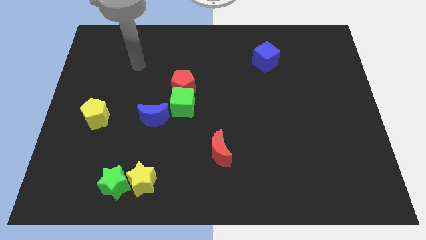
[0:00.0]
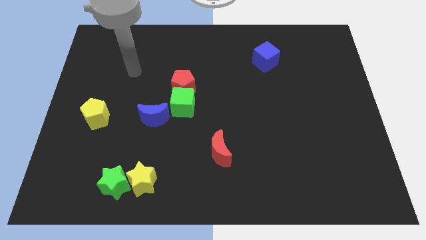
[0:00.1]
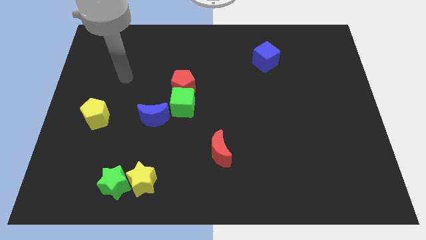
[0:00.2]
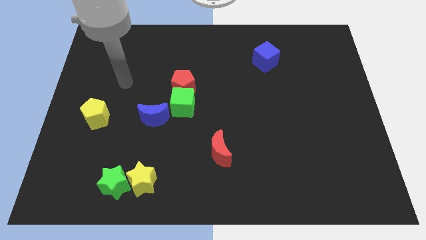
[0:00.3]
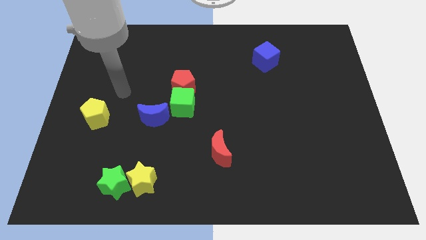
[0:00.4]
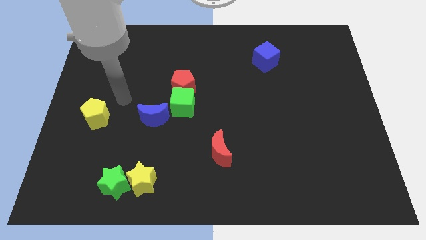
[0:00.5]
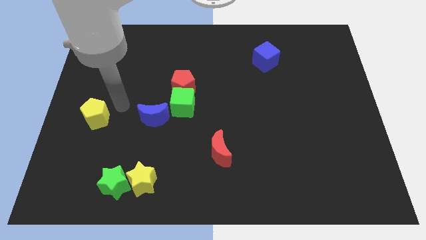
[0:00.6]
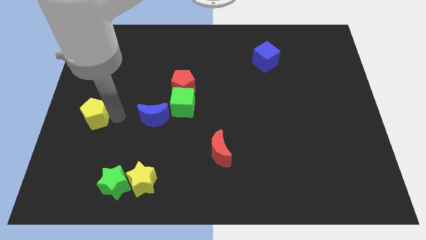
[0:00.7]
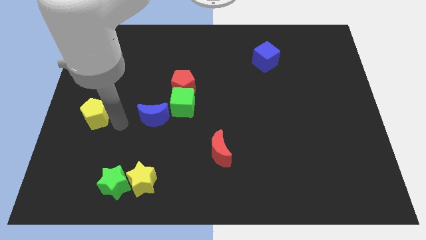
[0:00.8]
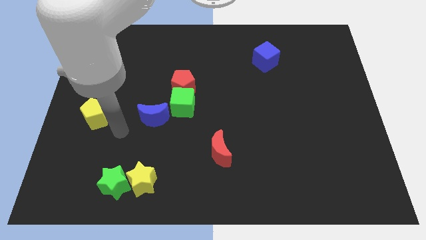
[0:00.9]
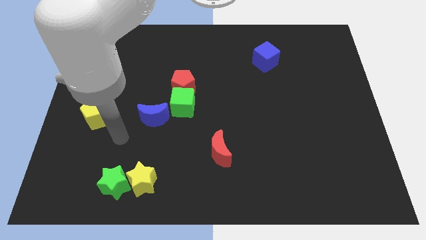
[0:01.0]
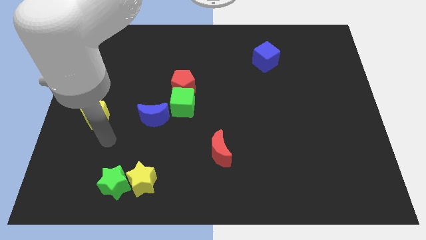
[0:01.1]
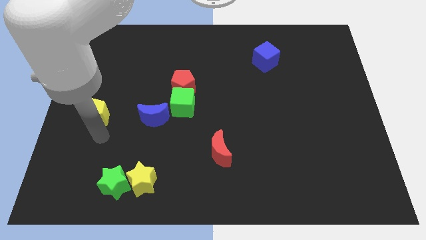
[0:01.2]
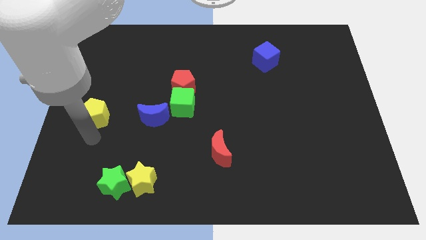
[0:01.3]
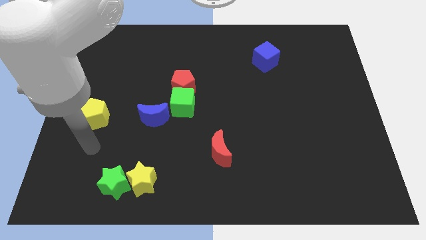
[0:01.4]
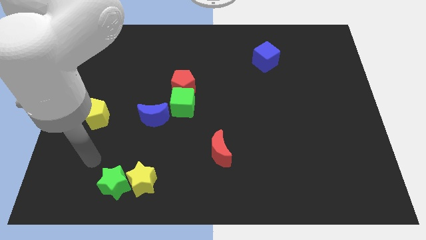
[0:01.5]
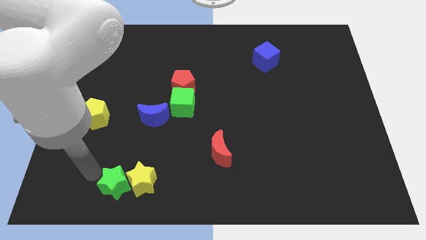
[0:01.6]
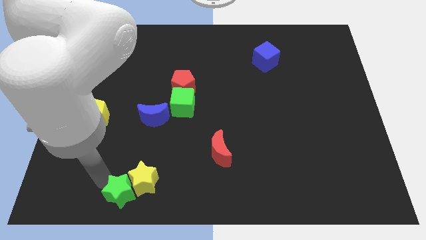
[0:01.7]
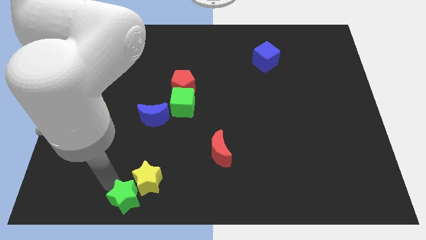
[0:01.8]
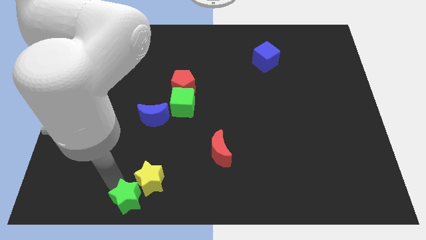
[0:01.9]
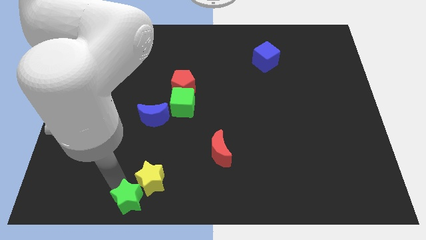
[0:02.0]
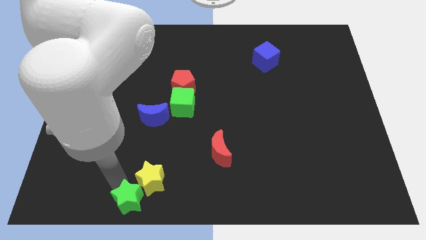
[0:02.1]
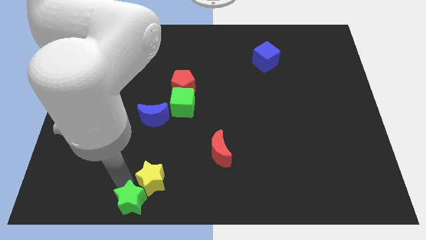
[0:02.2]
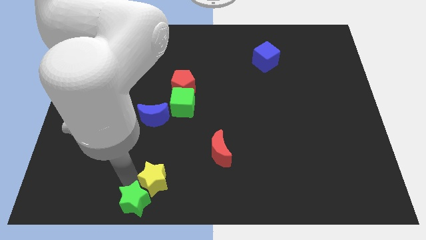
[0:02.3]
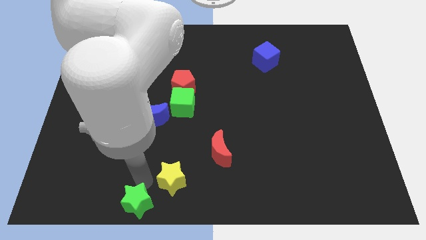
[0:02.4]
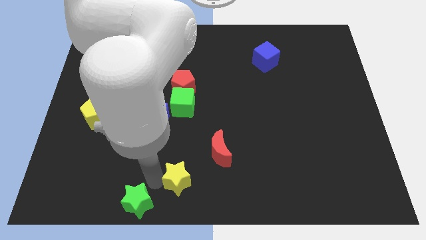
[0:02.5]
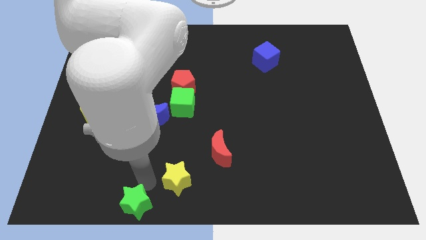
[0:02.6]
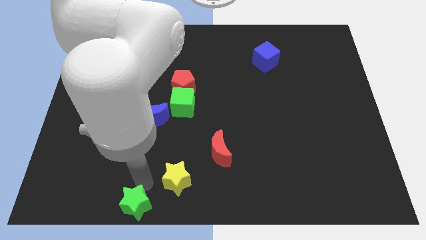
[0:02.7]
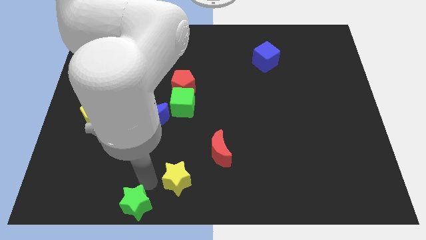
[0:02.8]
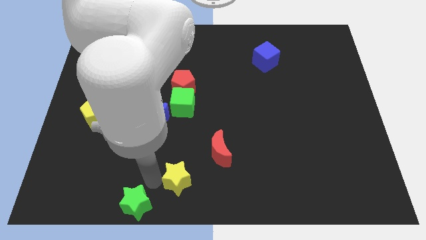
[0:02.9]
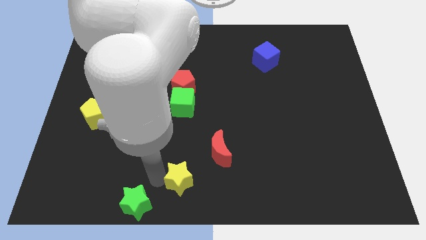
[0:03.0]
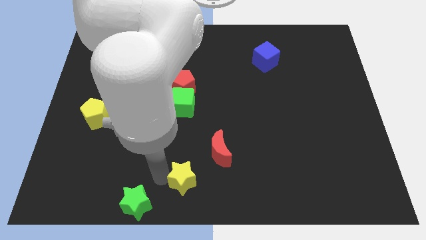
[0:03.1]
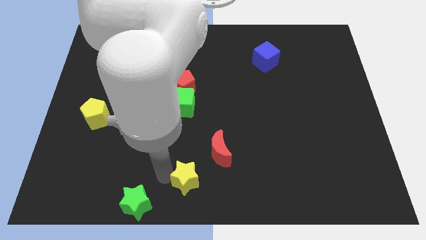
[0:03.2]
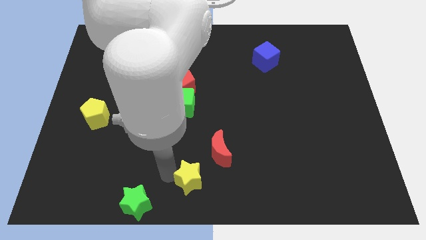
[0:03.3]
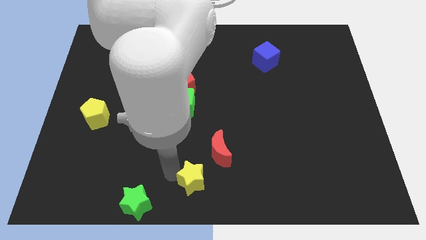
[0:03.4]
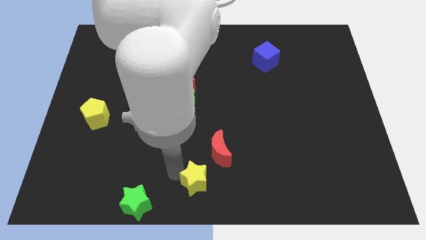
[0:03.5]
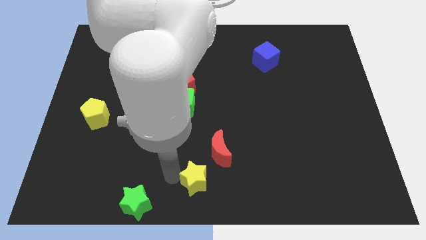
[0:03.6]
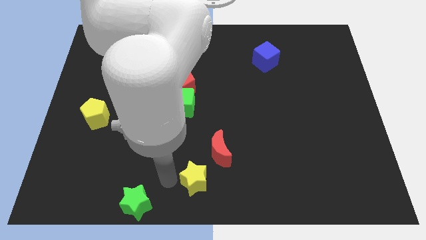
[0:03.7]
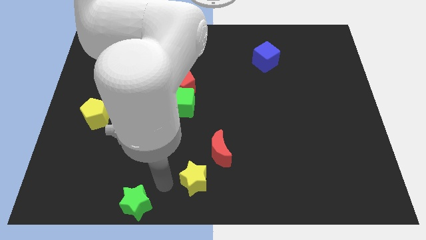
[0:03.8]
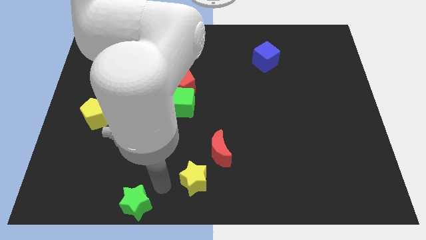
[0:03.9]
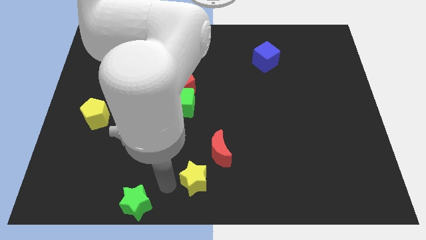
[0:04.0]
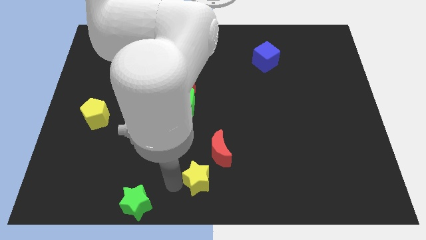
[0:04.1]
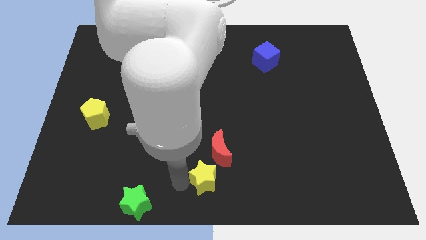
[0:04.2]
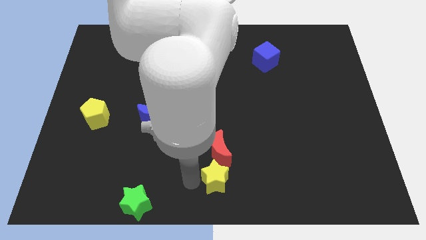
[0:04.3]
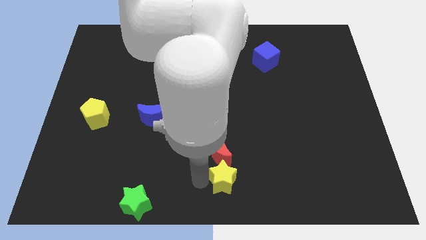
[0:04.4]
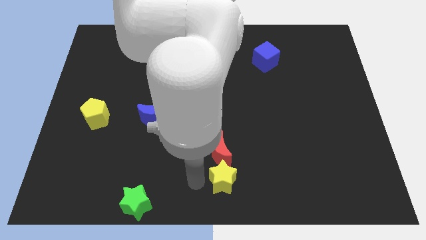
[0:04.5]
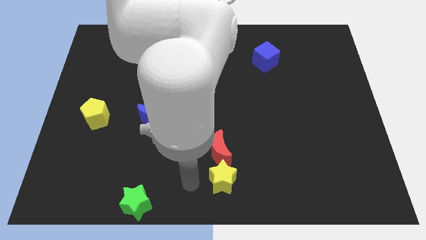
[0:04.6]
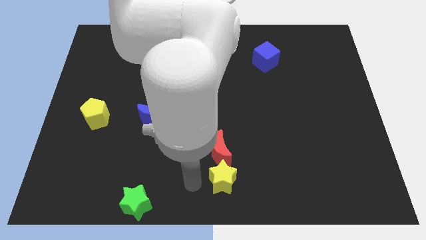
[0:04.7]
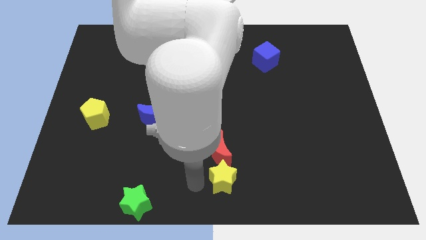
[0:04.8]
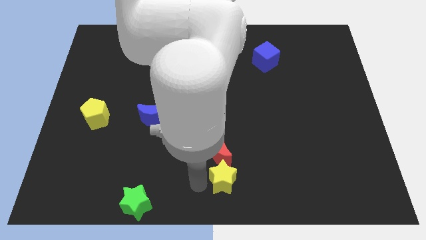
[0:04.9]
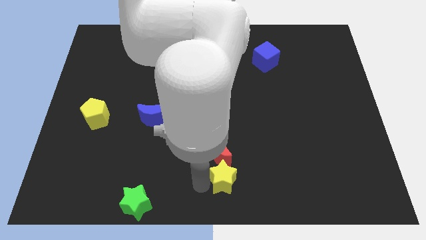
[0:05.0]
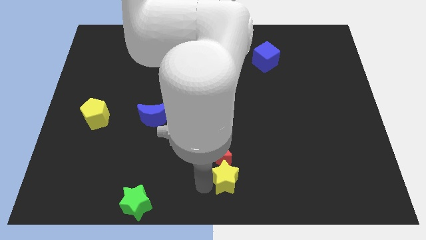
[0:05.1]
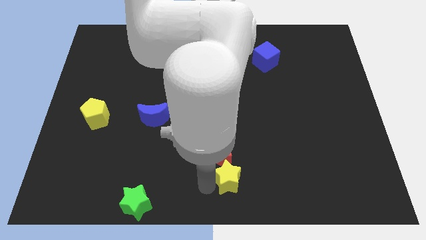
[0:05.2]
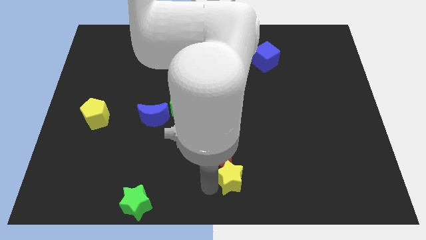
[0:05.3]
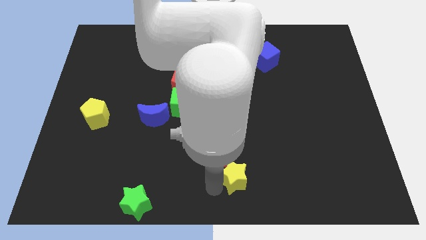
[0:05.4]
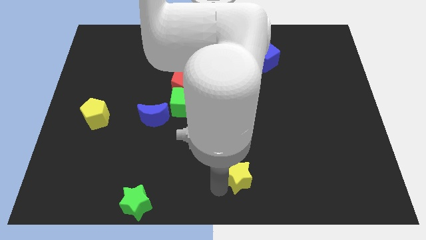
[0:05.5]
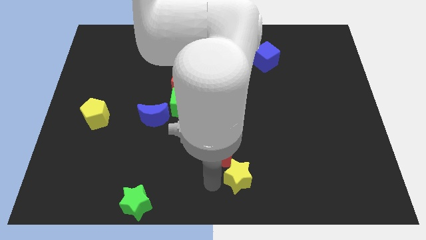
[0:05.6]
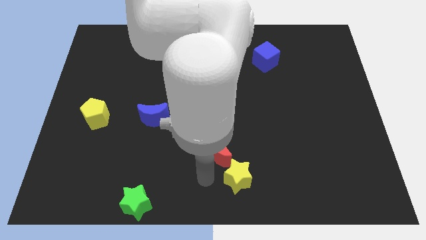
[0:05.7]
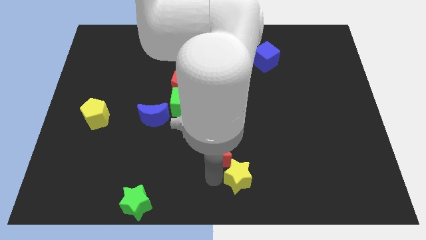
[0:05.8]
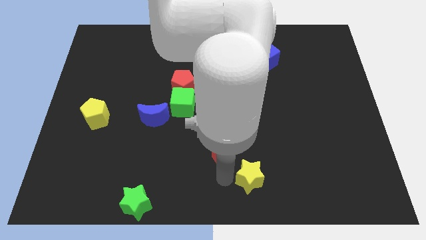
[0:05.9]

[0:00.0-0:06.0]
move the yellow star right

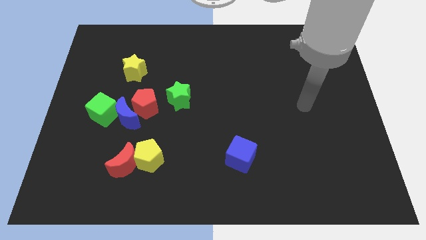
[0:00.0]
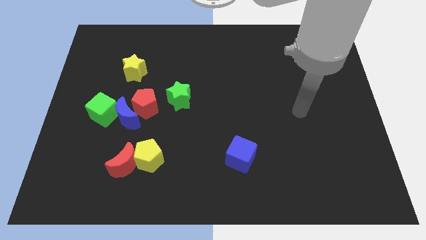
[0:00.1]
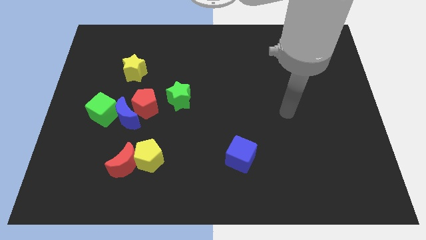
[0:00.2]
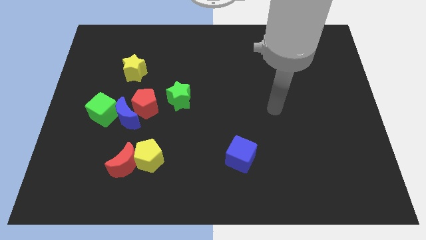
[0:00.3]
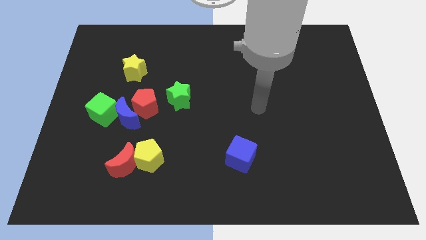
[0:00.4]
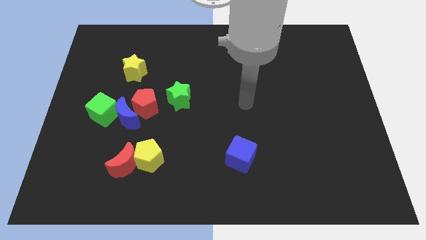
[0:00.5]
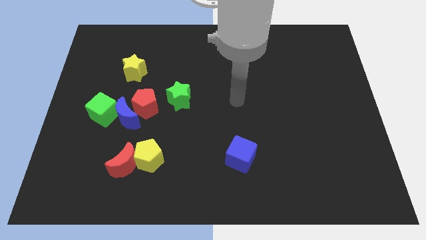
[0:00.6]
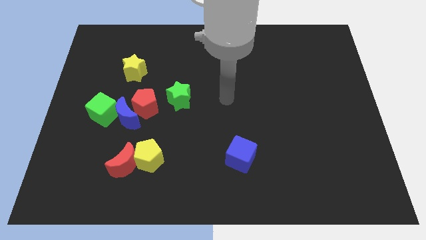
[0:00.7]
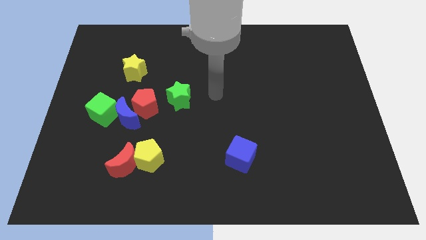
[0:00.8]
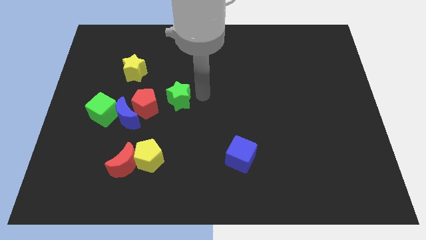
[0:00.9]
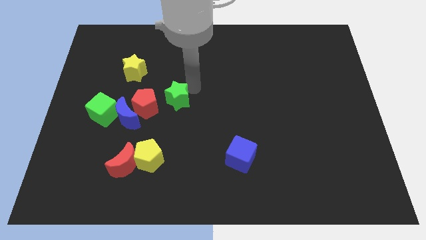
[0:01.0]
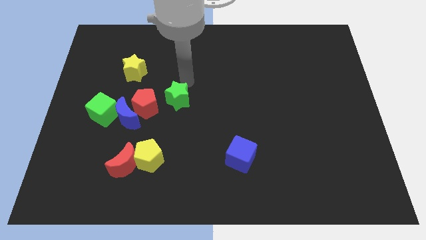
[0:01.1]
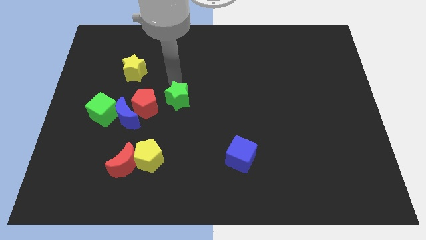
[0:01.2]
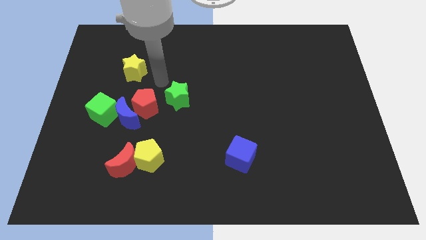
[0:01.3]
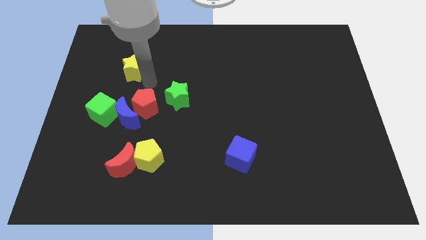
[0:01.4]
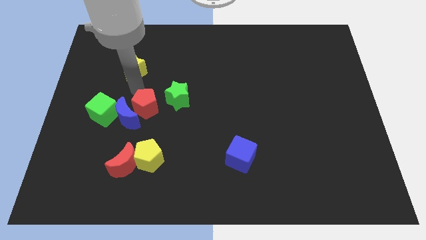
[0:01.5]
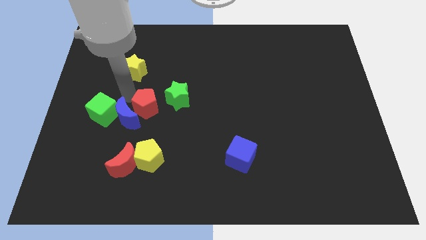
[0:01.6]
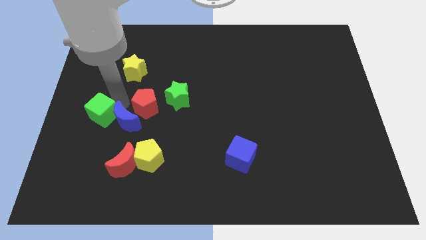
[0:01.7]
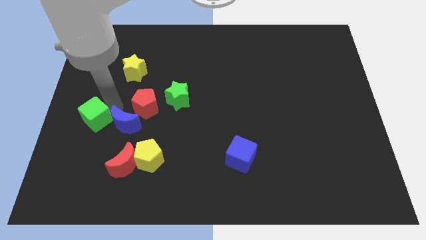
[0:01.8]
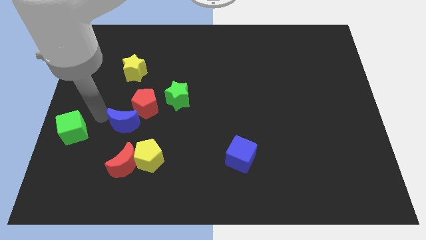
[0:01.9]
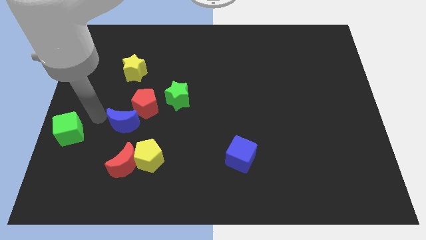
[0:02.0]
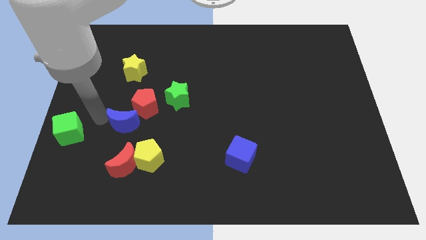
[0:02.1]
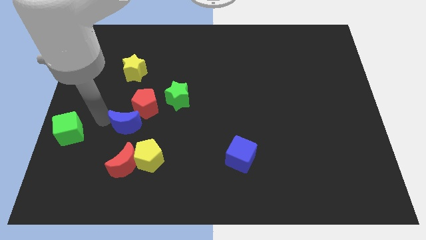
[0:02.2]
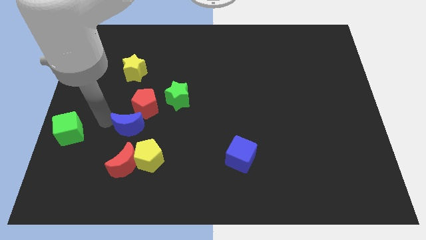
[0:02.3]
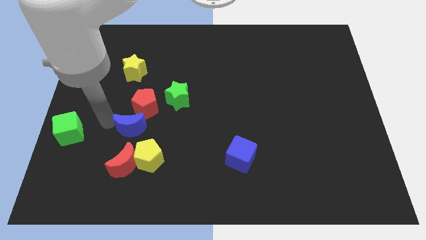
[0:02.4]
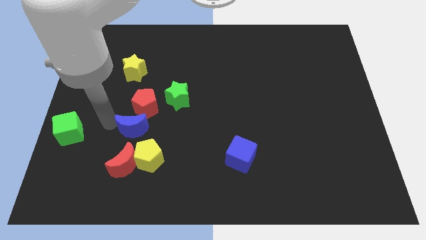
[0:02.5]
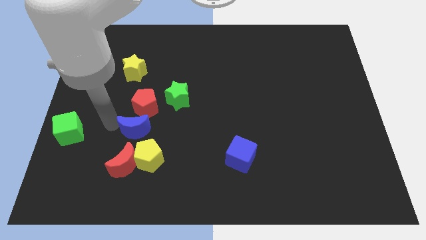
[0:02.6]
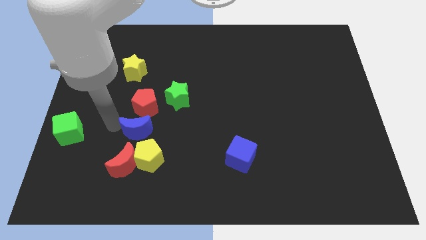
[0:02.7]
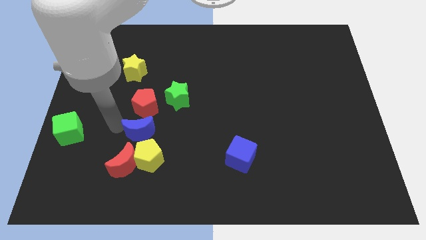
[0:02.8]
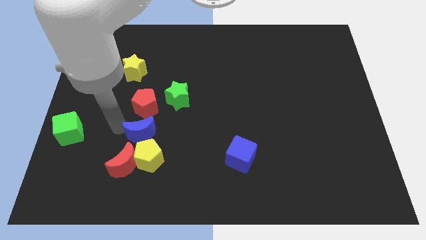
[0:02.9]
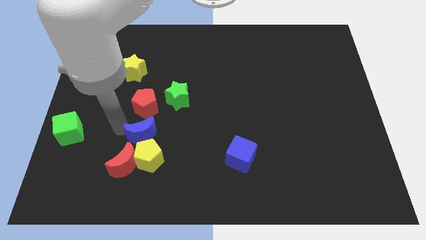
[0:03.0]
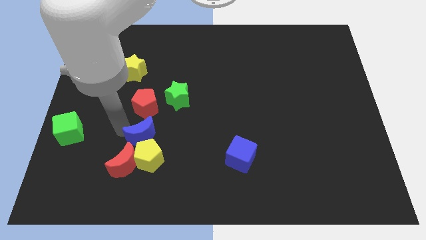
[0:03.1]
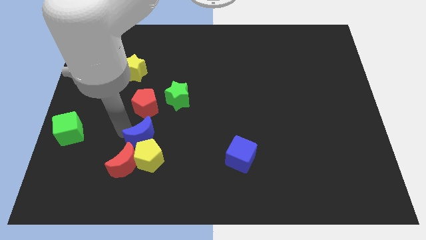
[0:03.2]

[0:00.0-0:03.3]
slide the blue moon downwards and right slightly
